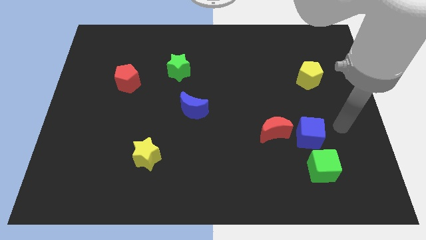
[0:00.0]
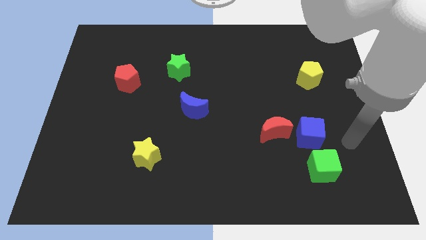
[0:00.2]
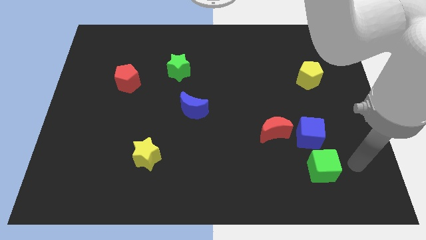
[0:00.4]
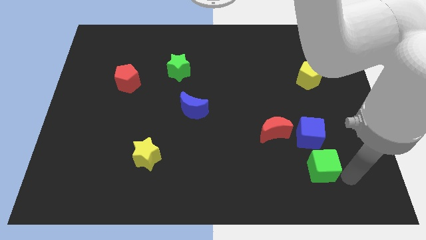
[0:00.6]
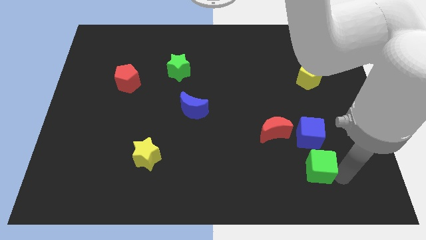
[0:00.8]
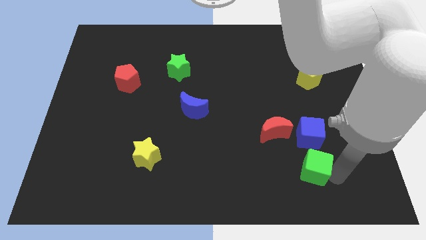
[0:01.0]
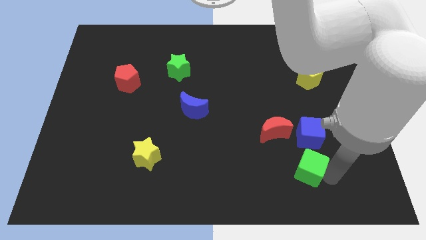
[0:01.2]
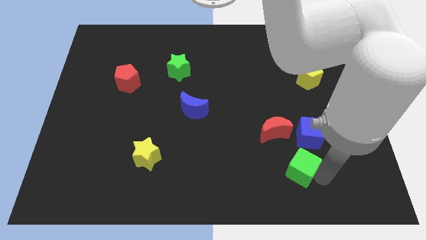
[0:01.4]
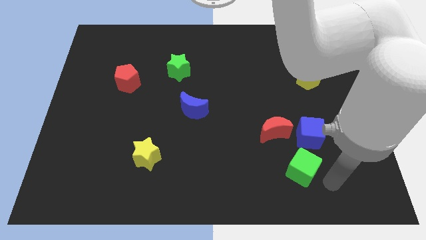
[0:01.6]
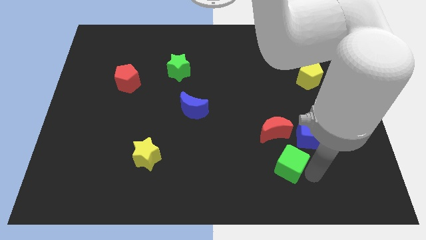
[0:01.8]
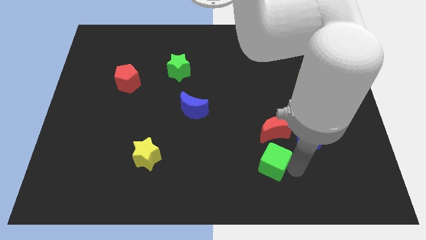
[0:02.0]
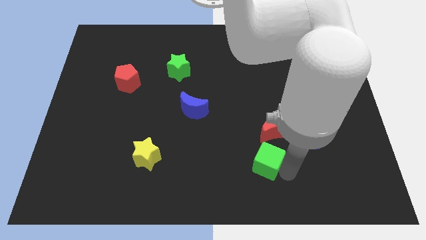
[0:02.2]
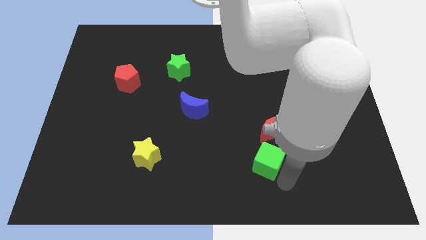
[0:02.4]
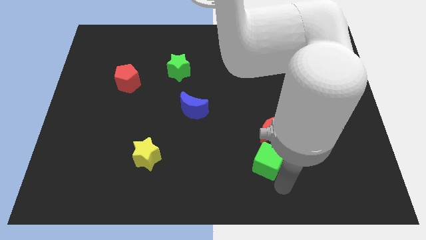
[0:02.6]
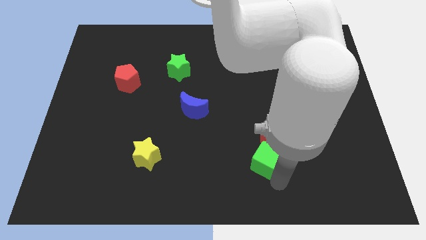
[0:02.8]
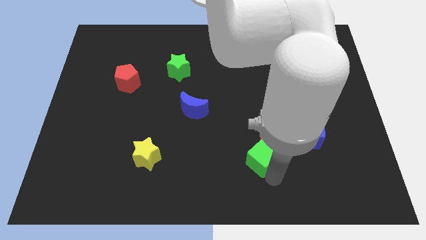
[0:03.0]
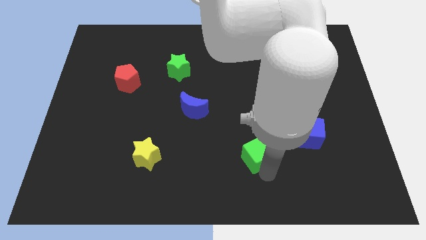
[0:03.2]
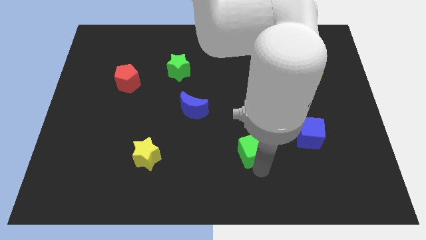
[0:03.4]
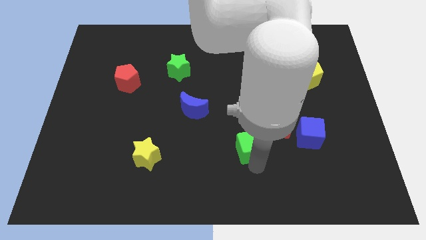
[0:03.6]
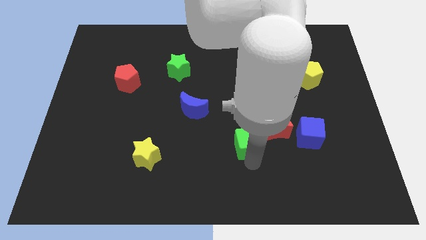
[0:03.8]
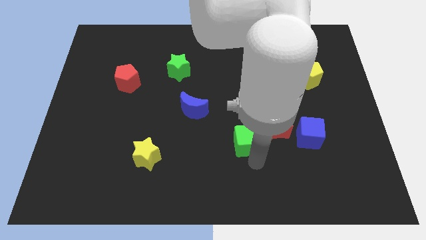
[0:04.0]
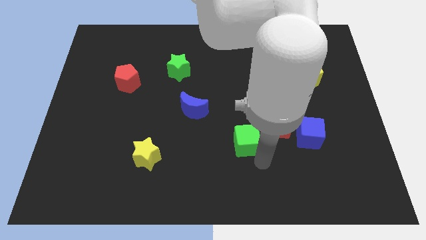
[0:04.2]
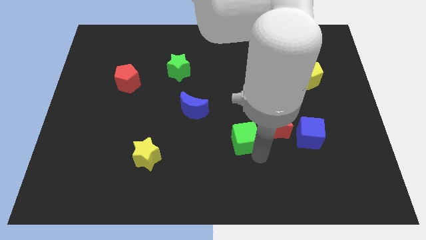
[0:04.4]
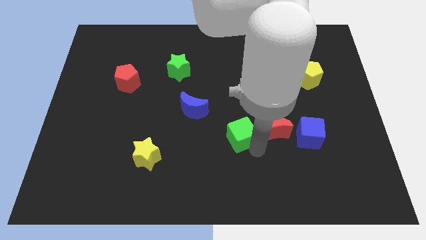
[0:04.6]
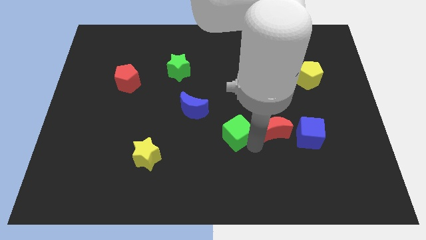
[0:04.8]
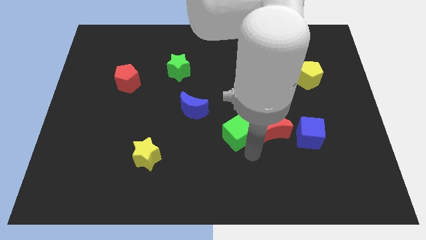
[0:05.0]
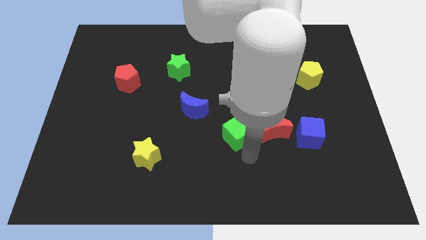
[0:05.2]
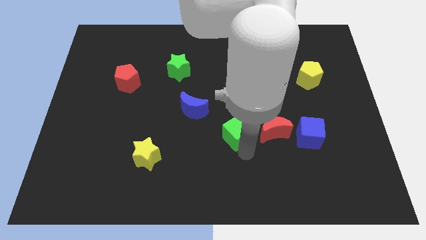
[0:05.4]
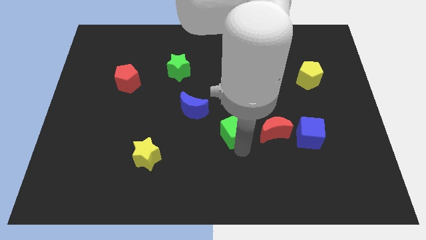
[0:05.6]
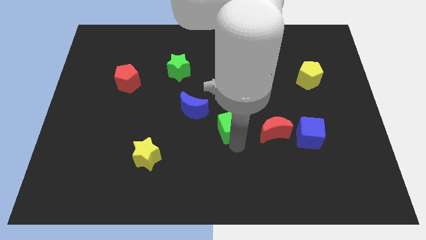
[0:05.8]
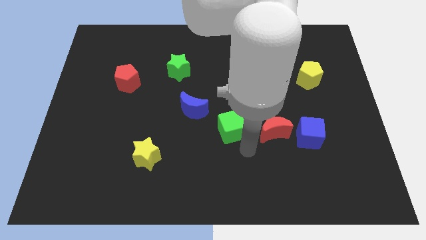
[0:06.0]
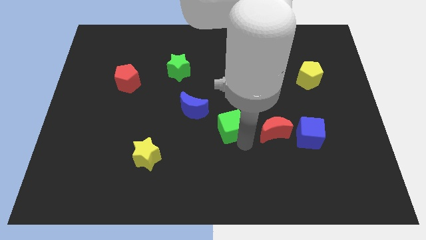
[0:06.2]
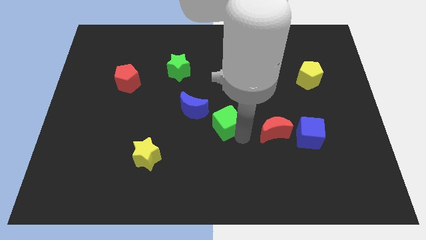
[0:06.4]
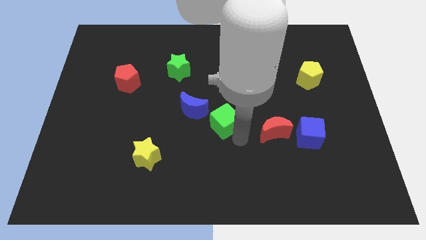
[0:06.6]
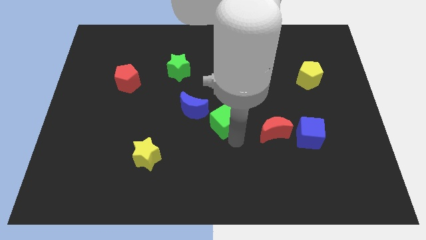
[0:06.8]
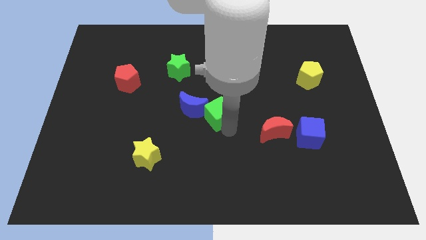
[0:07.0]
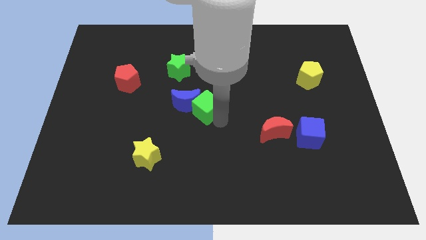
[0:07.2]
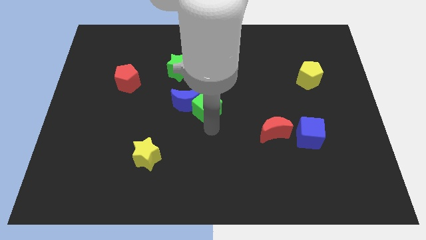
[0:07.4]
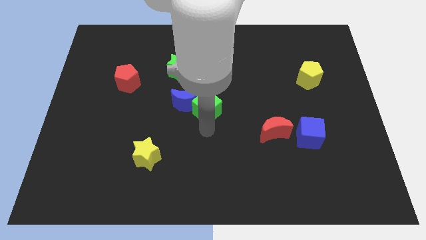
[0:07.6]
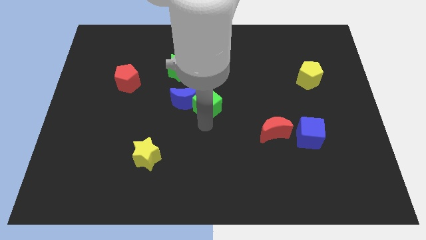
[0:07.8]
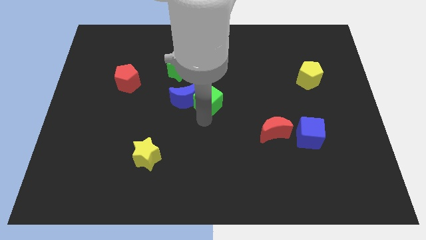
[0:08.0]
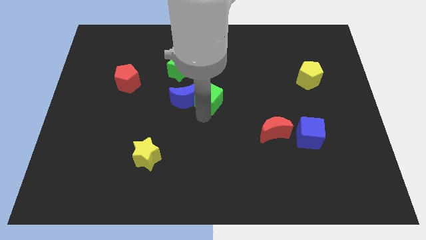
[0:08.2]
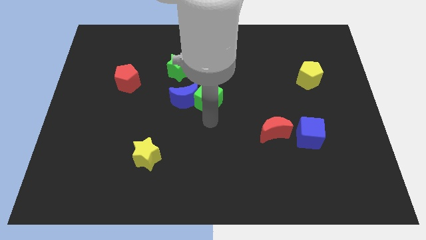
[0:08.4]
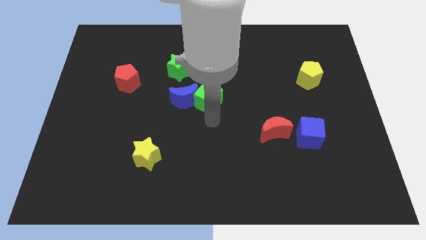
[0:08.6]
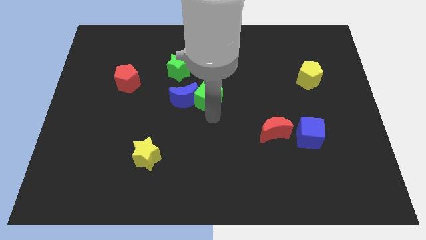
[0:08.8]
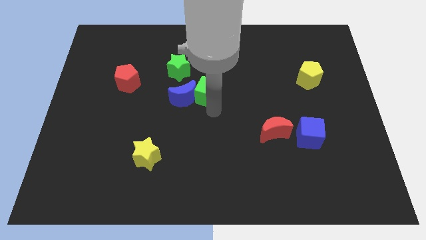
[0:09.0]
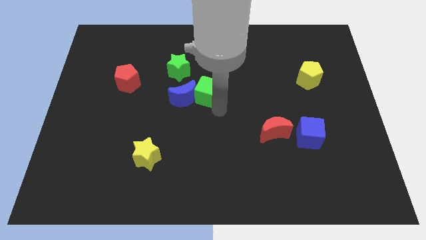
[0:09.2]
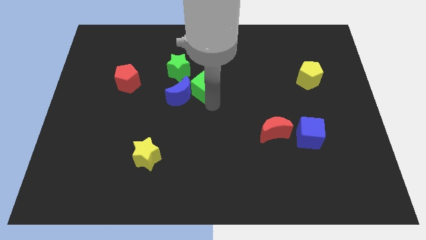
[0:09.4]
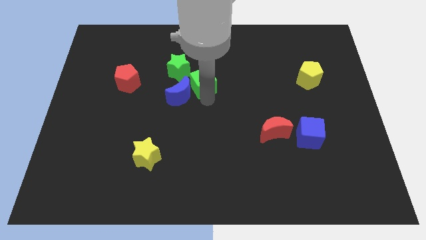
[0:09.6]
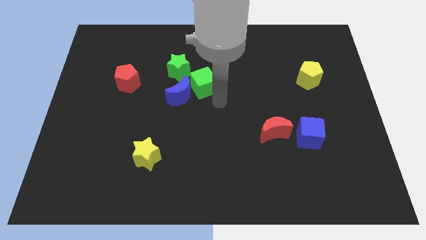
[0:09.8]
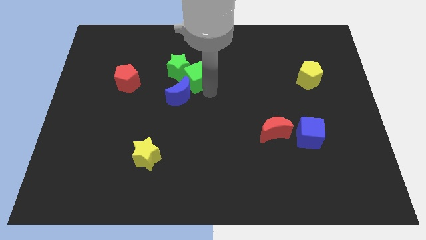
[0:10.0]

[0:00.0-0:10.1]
move the green cube to the top side of the blue moon

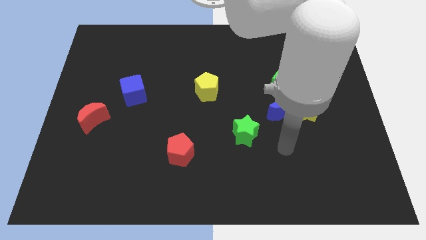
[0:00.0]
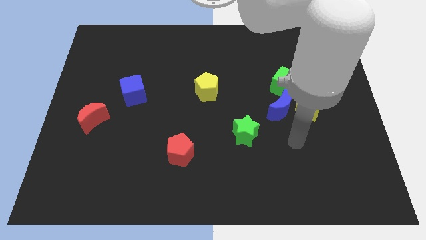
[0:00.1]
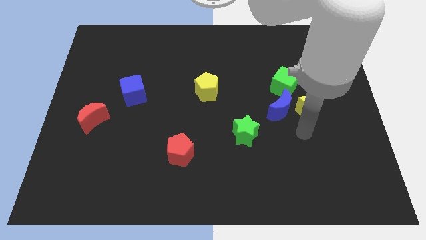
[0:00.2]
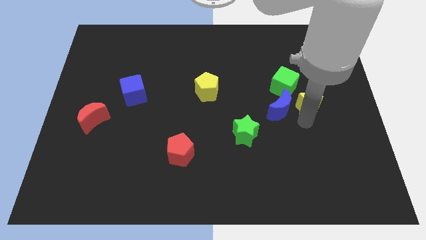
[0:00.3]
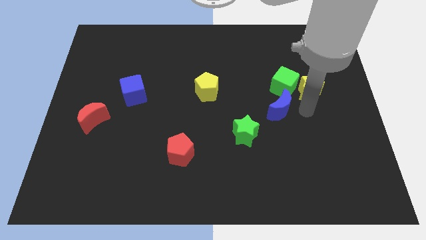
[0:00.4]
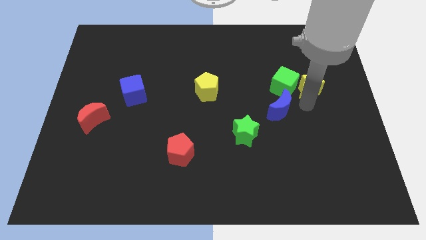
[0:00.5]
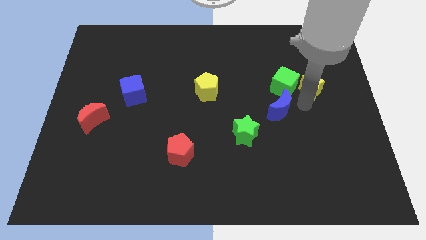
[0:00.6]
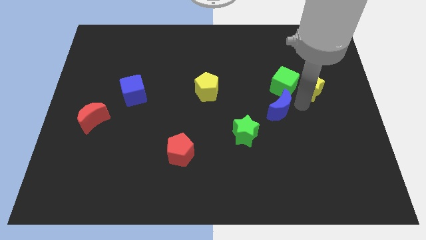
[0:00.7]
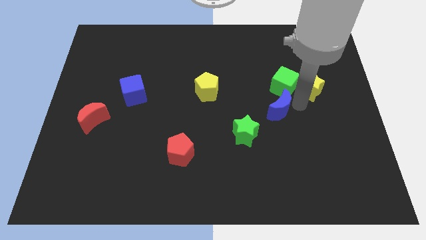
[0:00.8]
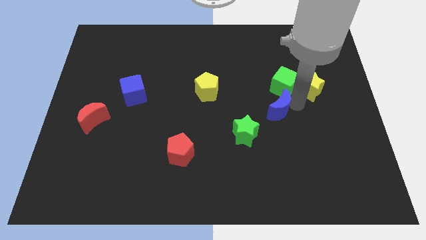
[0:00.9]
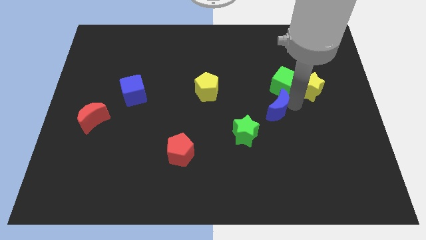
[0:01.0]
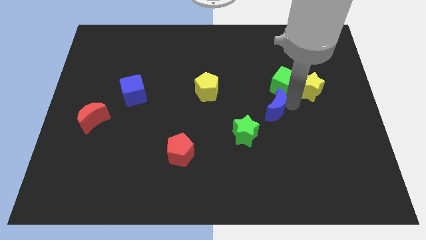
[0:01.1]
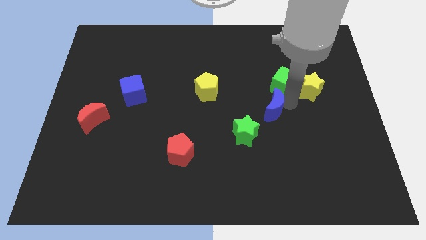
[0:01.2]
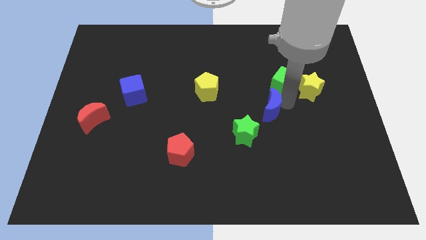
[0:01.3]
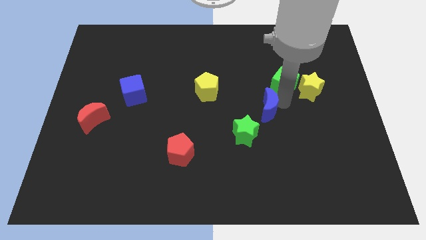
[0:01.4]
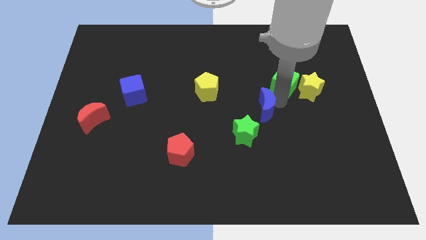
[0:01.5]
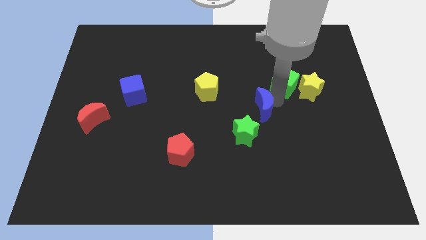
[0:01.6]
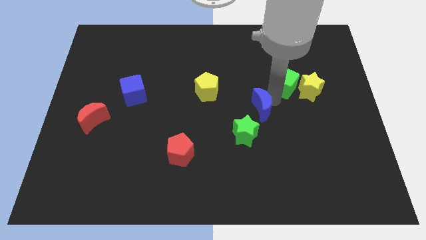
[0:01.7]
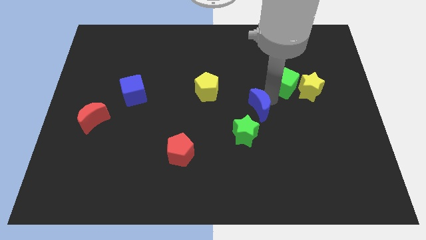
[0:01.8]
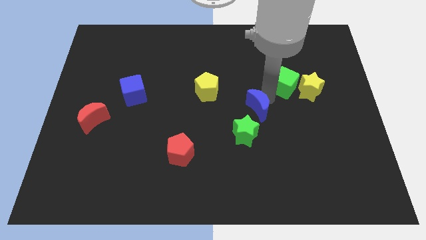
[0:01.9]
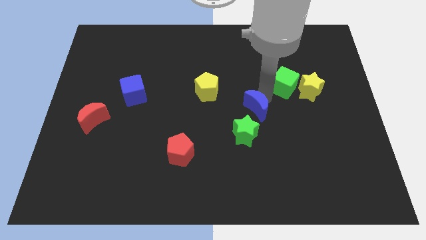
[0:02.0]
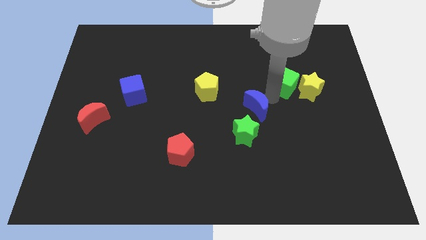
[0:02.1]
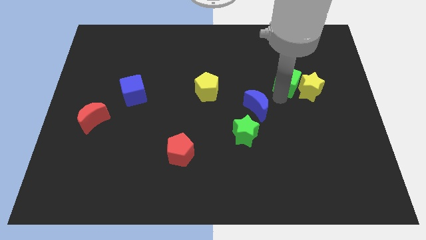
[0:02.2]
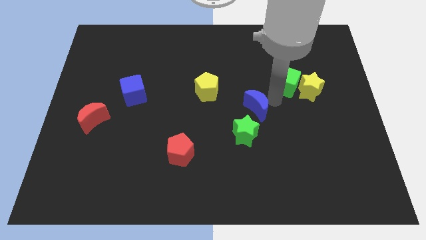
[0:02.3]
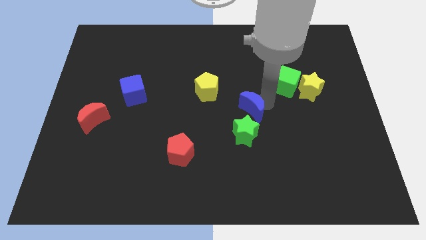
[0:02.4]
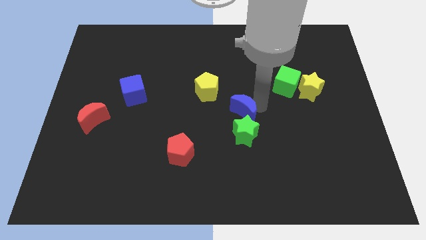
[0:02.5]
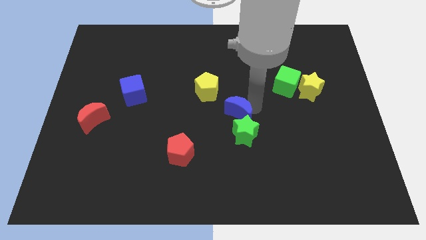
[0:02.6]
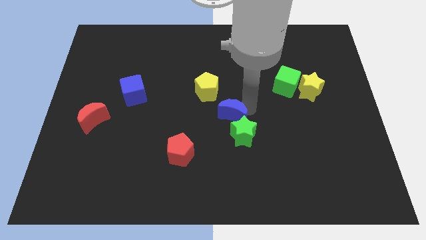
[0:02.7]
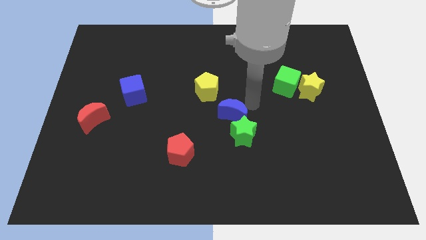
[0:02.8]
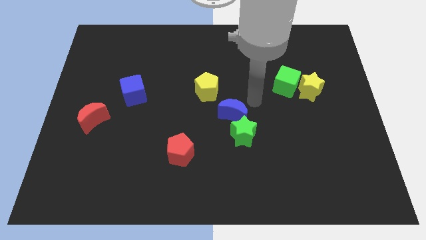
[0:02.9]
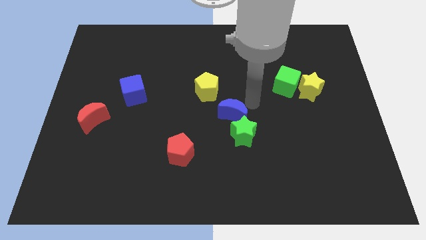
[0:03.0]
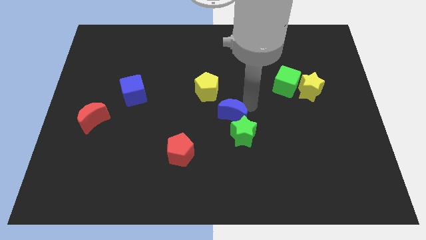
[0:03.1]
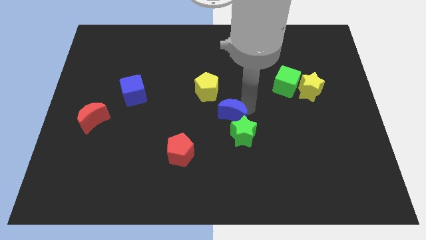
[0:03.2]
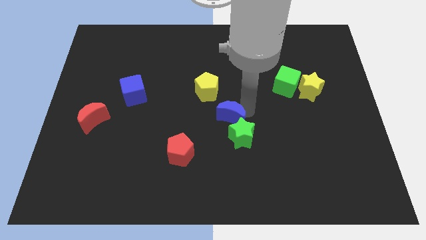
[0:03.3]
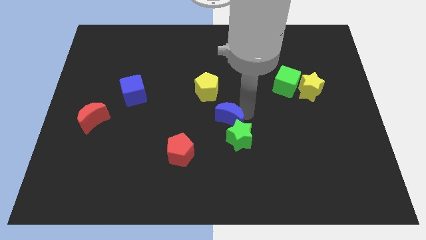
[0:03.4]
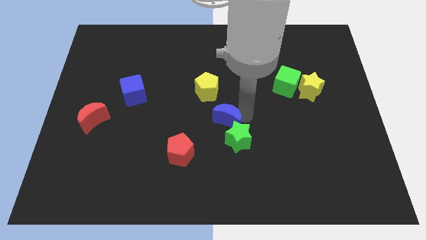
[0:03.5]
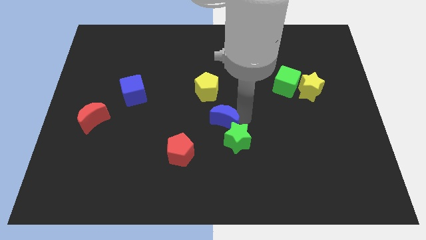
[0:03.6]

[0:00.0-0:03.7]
slide the blue moon to the top right of the red pentagon
